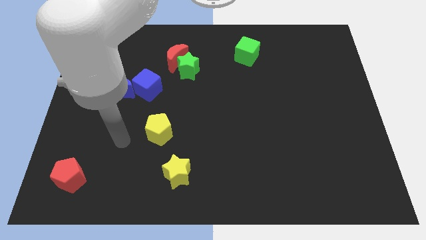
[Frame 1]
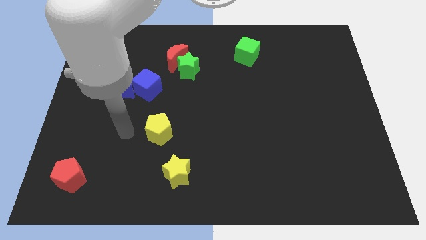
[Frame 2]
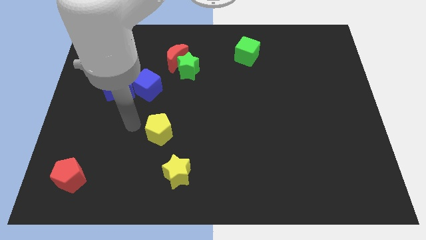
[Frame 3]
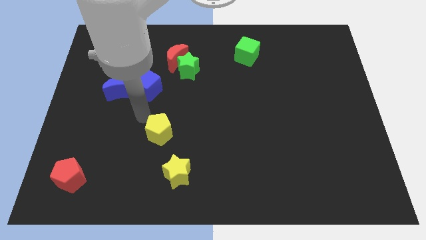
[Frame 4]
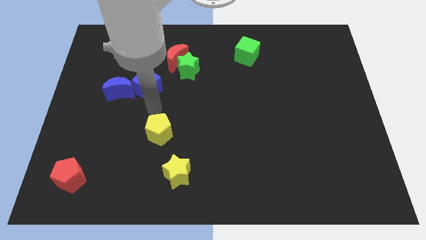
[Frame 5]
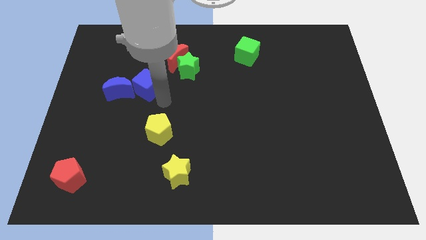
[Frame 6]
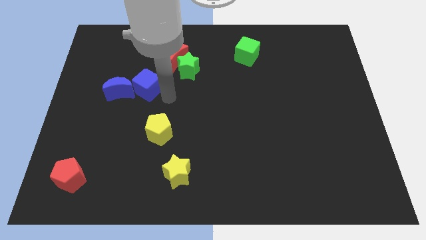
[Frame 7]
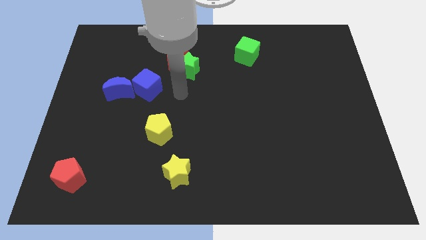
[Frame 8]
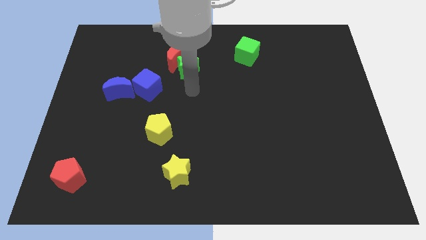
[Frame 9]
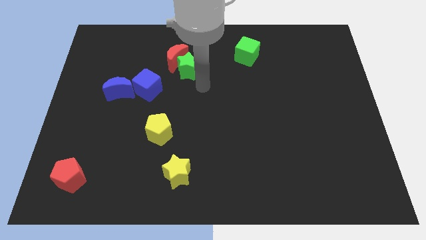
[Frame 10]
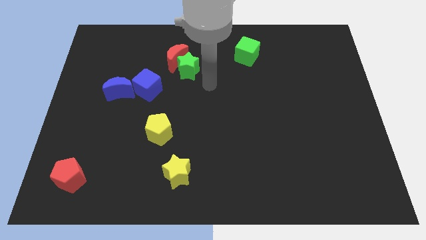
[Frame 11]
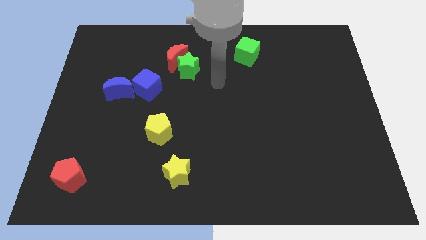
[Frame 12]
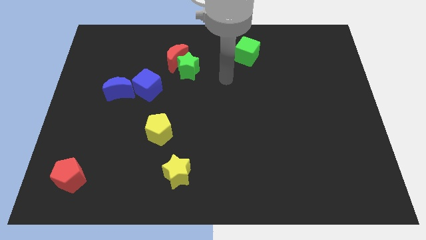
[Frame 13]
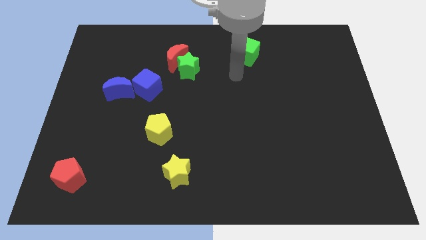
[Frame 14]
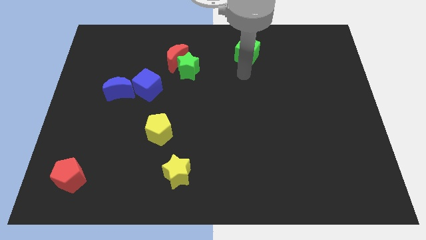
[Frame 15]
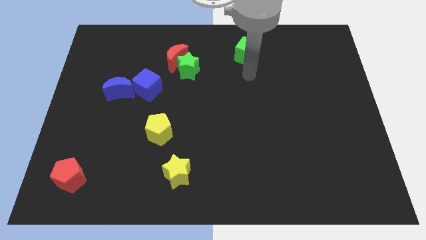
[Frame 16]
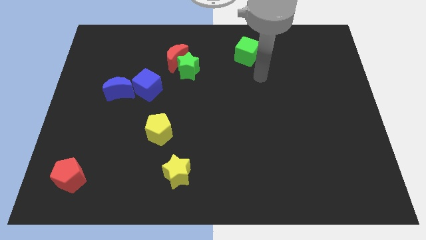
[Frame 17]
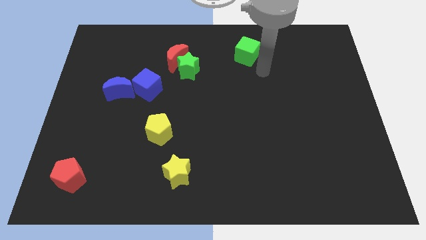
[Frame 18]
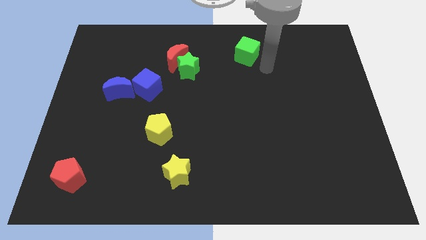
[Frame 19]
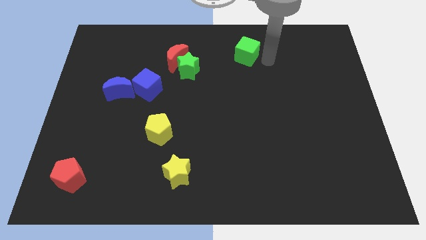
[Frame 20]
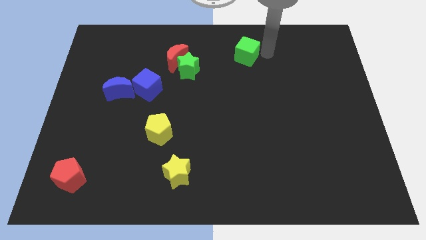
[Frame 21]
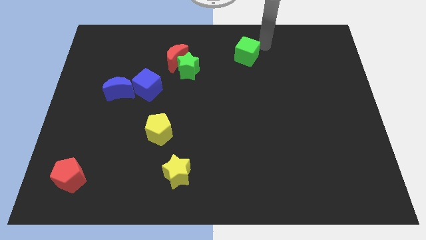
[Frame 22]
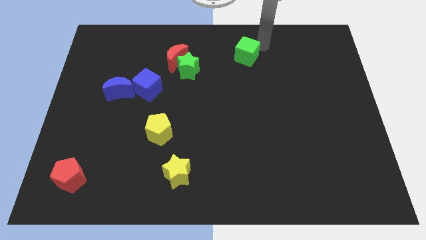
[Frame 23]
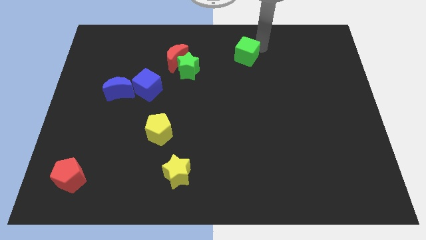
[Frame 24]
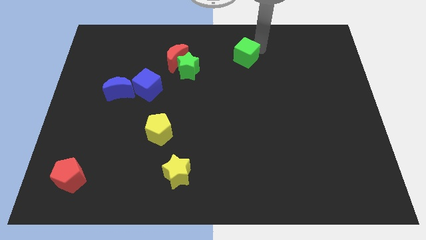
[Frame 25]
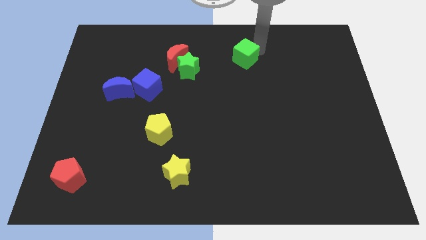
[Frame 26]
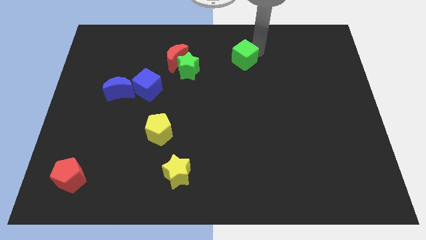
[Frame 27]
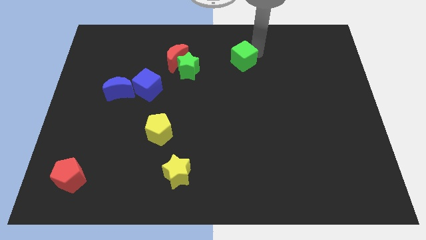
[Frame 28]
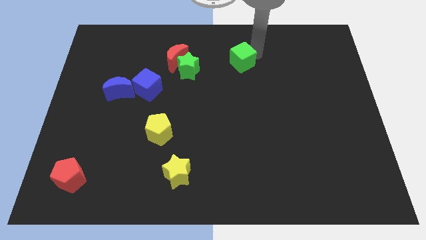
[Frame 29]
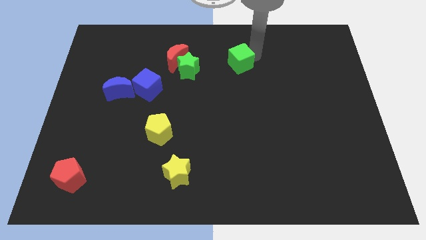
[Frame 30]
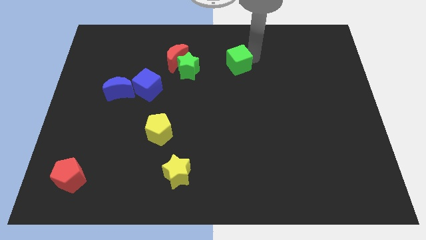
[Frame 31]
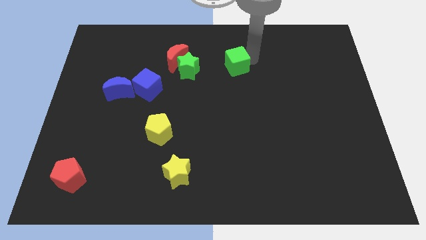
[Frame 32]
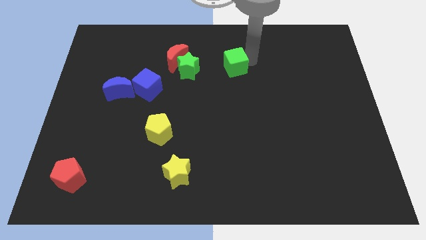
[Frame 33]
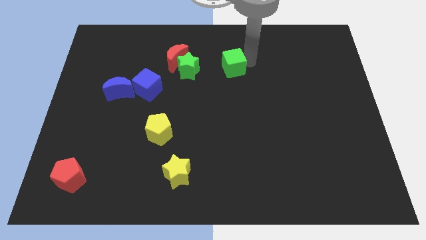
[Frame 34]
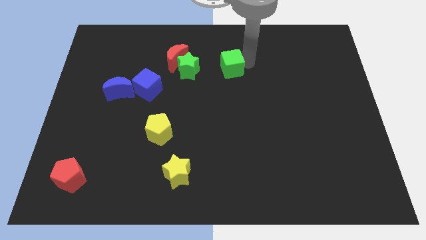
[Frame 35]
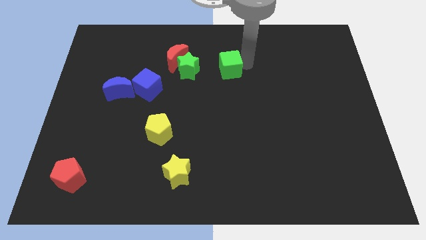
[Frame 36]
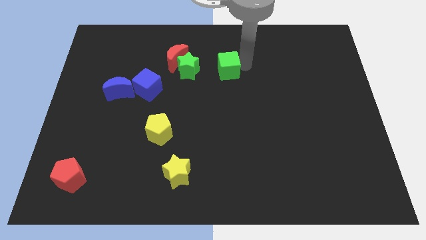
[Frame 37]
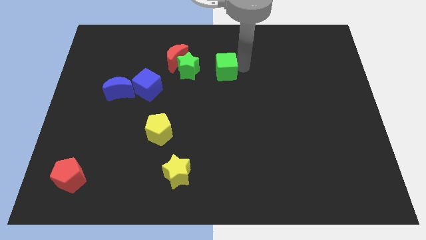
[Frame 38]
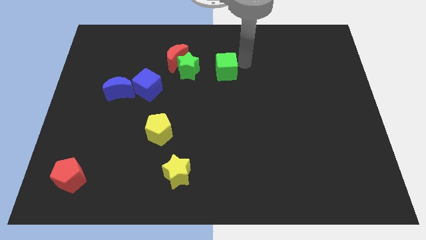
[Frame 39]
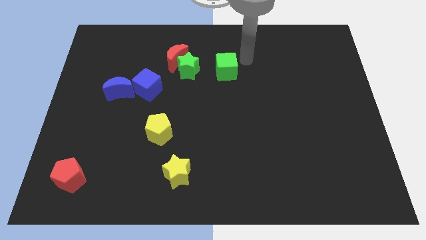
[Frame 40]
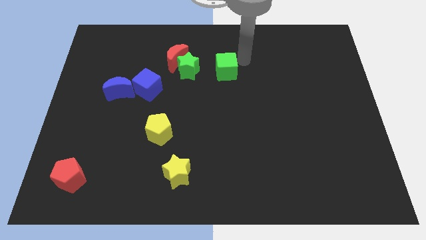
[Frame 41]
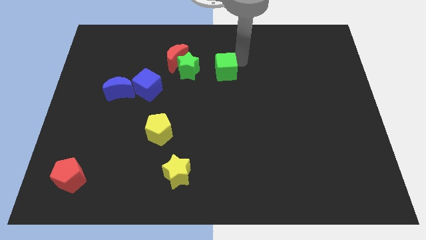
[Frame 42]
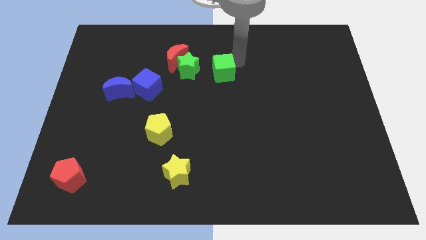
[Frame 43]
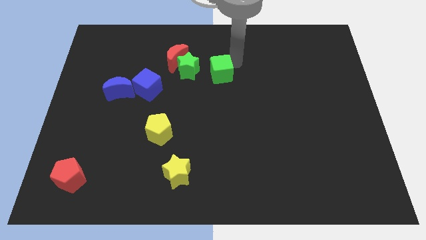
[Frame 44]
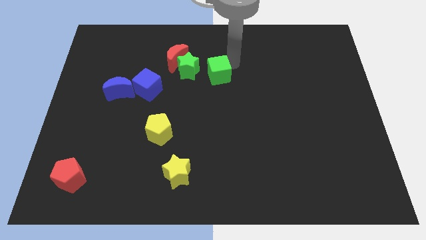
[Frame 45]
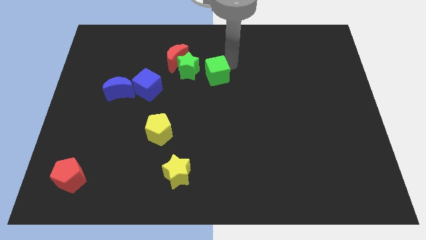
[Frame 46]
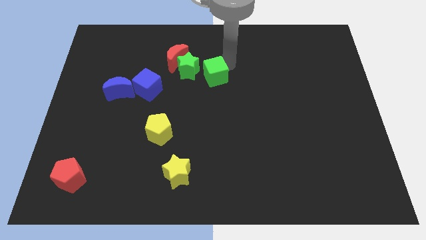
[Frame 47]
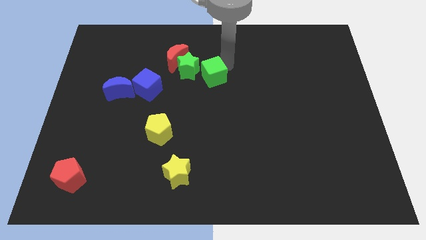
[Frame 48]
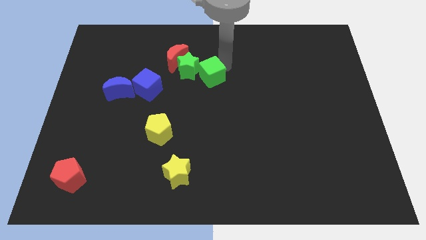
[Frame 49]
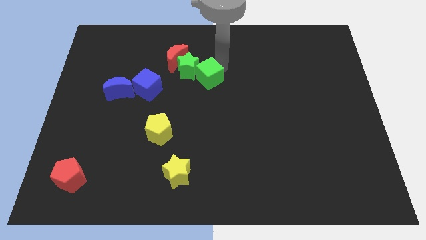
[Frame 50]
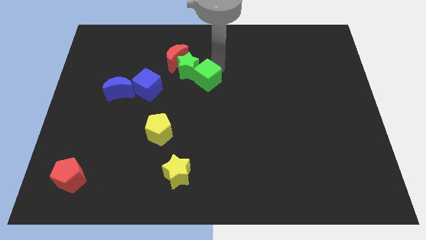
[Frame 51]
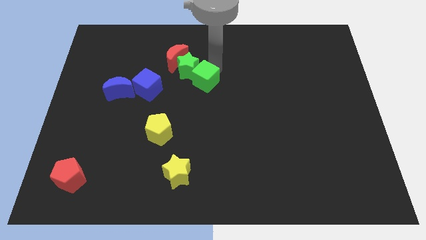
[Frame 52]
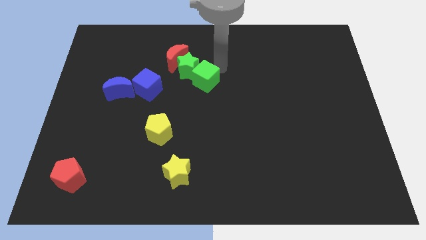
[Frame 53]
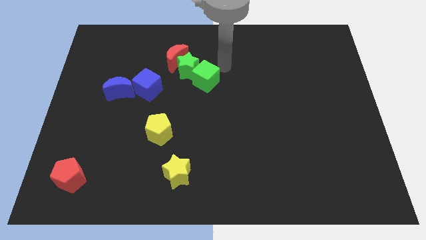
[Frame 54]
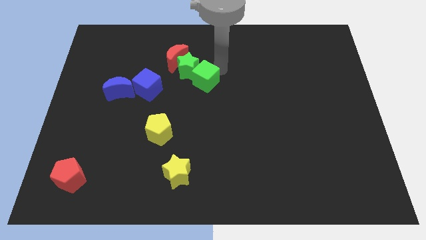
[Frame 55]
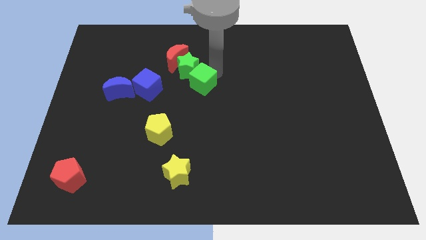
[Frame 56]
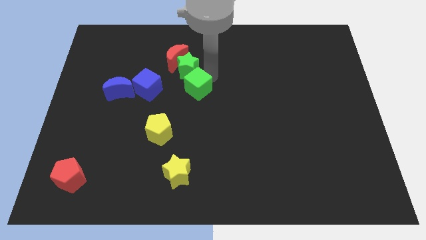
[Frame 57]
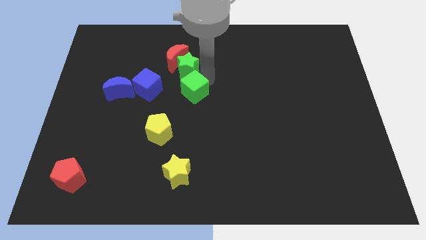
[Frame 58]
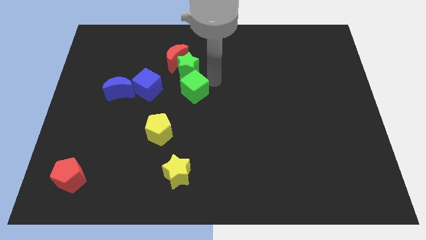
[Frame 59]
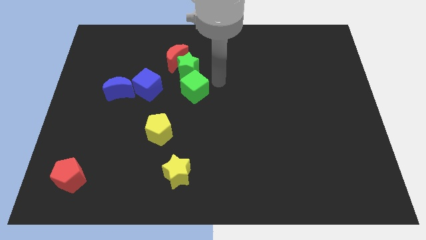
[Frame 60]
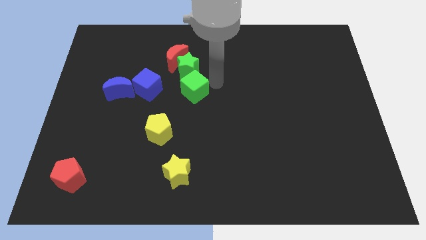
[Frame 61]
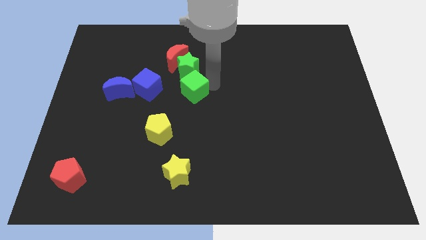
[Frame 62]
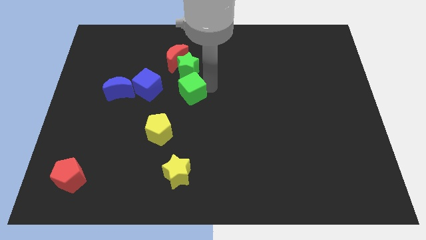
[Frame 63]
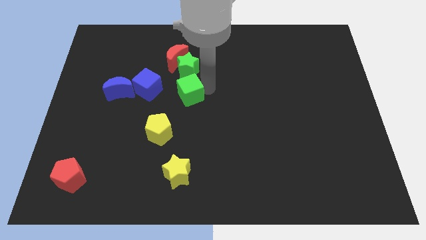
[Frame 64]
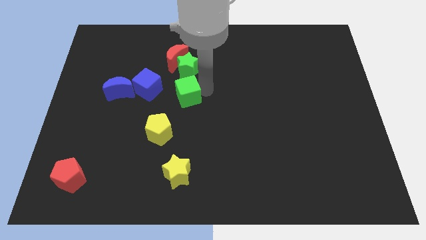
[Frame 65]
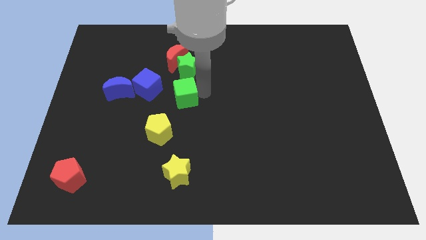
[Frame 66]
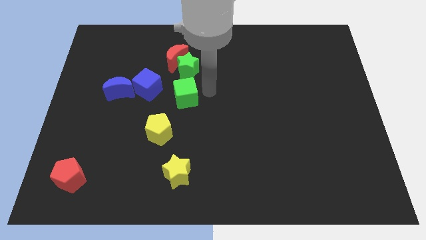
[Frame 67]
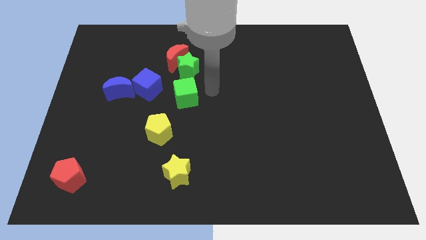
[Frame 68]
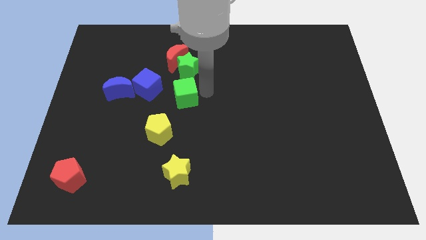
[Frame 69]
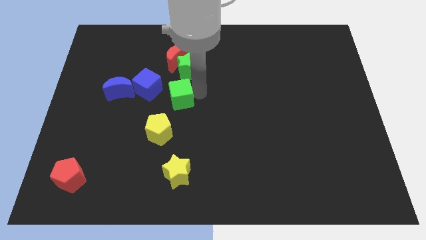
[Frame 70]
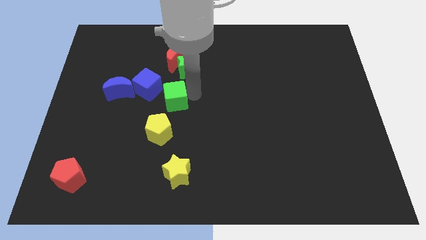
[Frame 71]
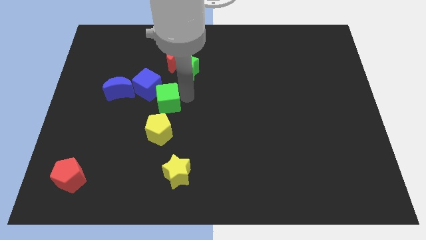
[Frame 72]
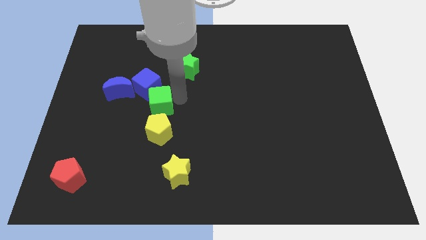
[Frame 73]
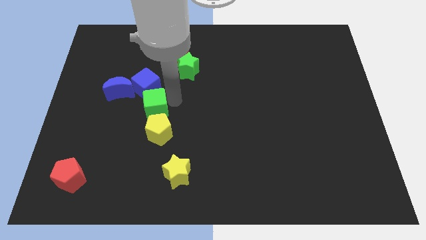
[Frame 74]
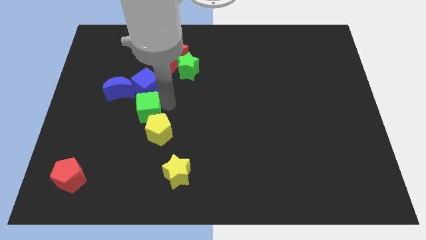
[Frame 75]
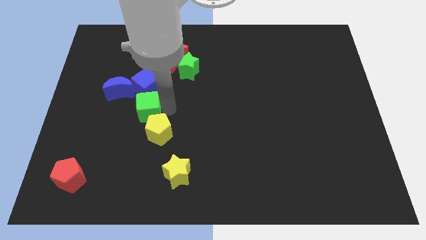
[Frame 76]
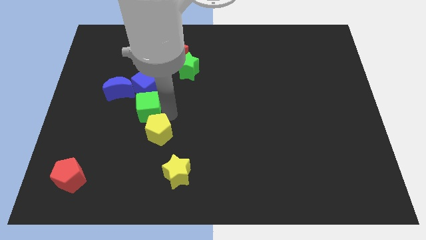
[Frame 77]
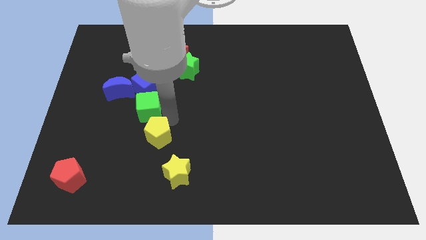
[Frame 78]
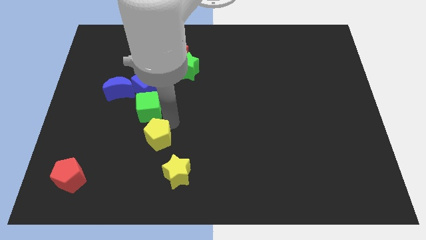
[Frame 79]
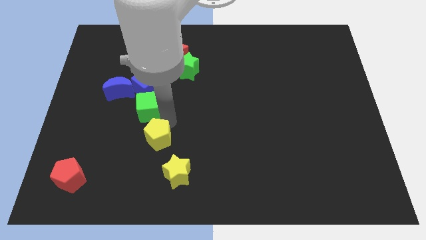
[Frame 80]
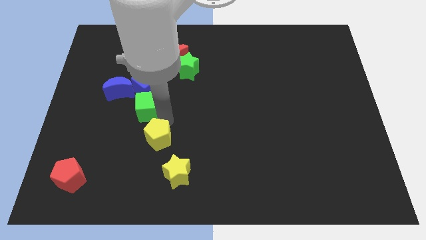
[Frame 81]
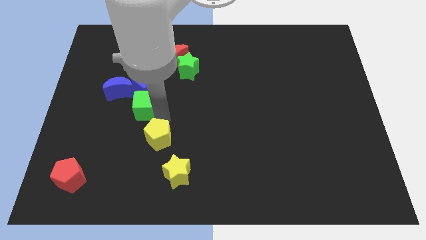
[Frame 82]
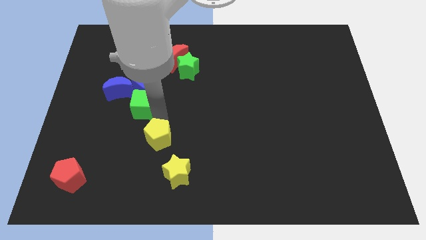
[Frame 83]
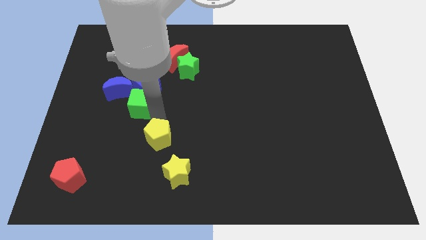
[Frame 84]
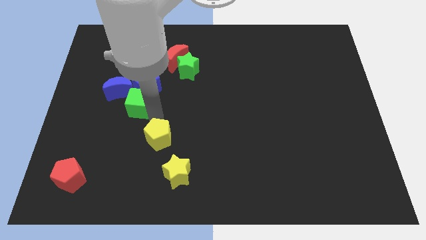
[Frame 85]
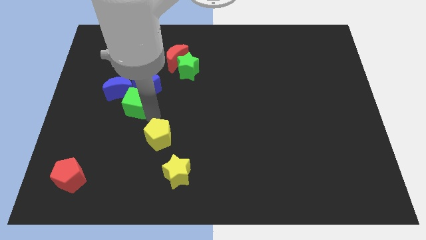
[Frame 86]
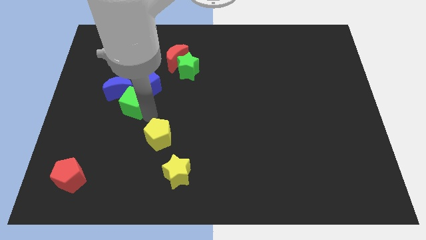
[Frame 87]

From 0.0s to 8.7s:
move the green cube towards the blue moon
